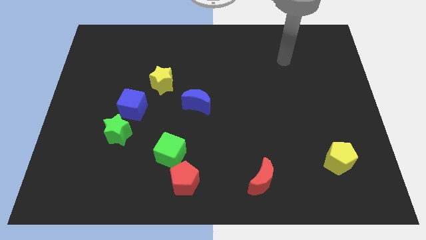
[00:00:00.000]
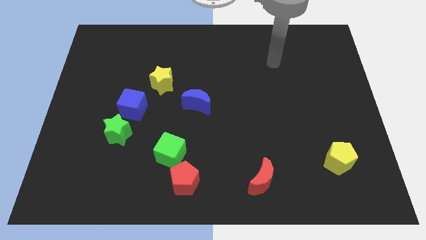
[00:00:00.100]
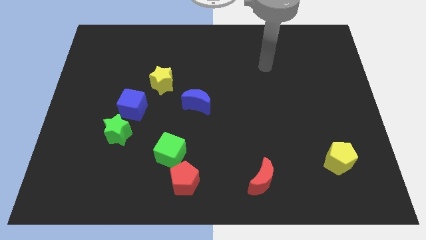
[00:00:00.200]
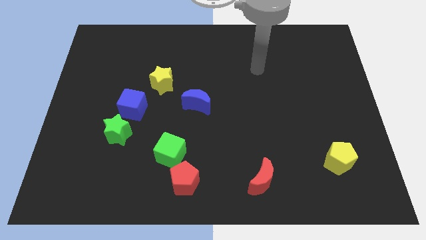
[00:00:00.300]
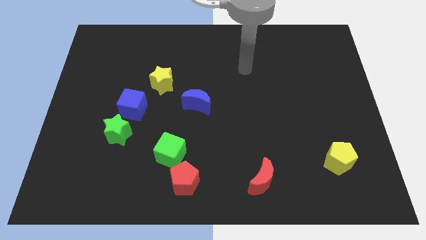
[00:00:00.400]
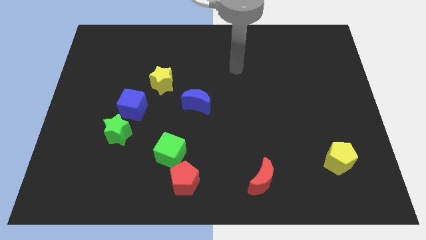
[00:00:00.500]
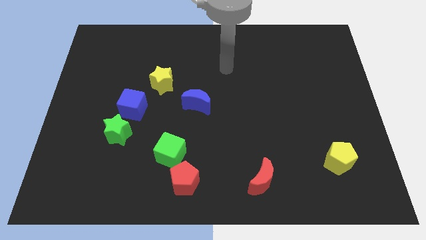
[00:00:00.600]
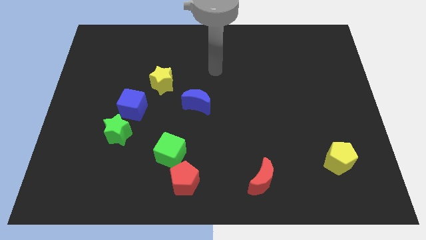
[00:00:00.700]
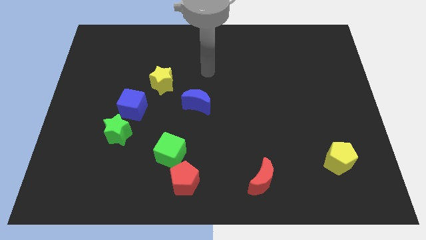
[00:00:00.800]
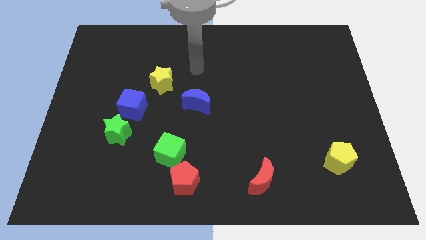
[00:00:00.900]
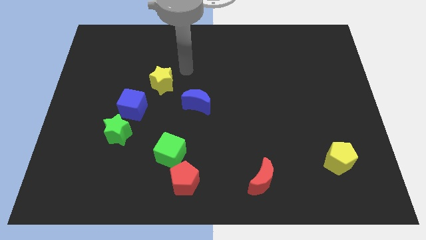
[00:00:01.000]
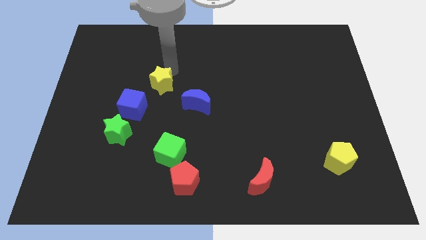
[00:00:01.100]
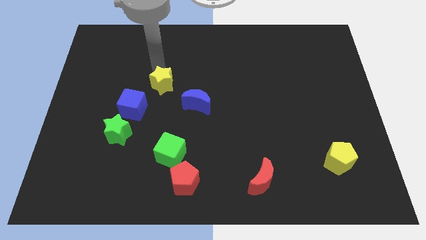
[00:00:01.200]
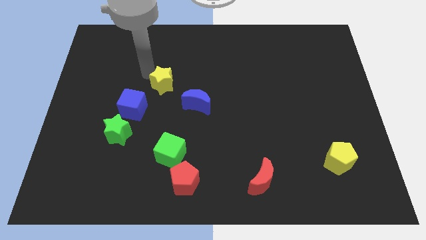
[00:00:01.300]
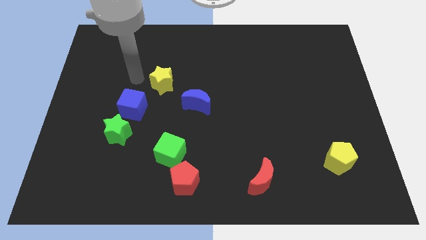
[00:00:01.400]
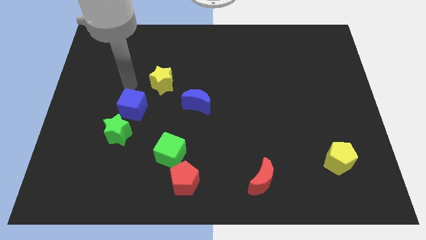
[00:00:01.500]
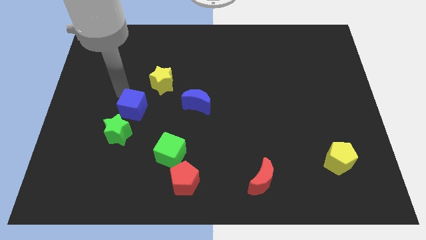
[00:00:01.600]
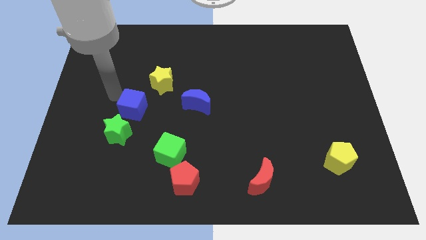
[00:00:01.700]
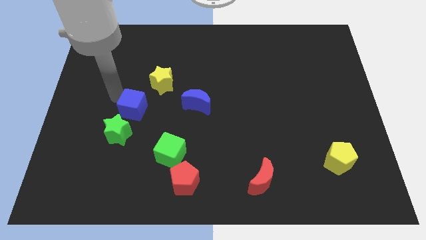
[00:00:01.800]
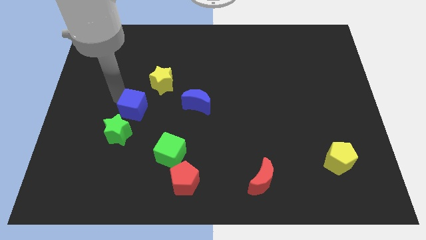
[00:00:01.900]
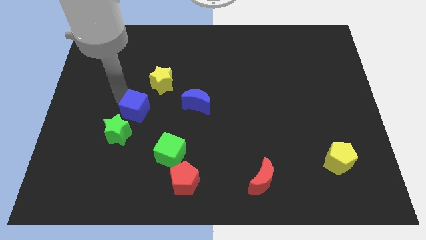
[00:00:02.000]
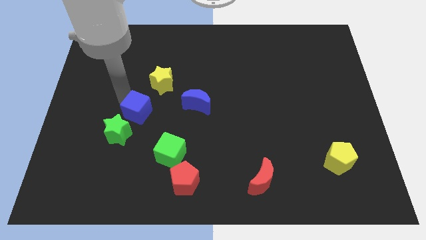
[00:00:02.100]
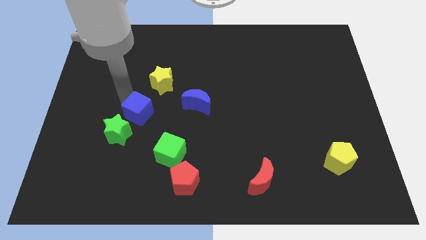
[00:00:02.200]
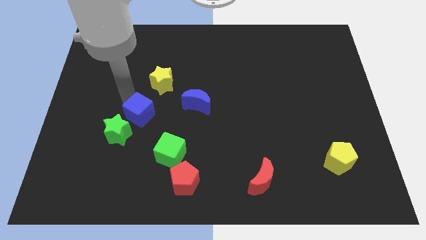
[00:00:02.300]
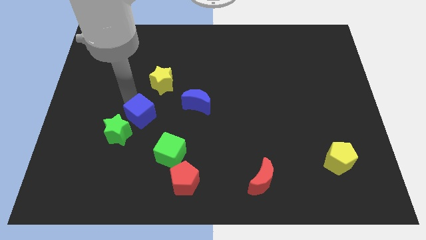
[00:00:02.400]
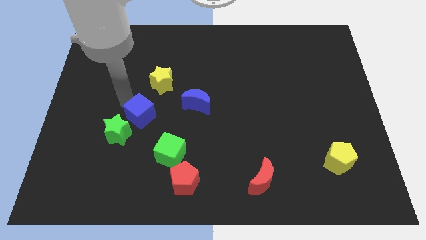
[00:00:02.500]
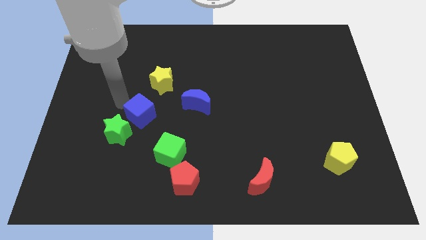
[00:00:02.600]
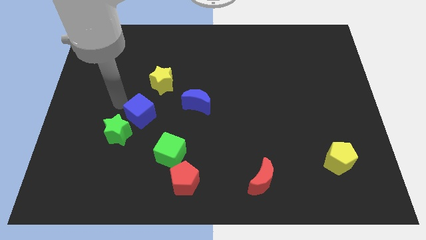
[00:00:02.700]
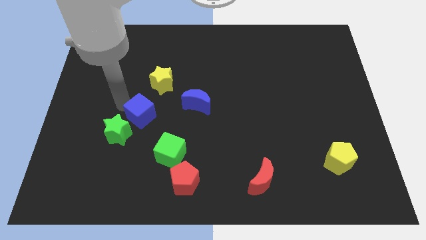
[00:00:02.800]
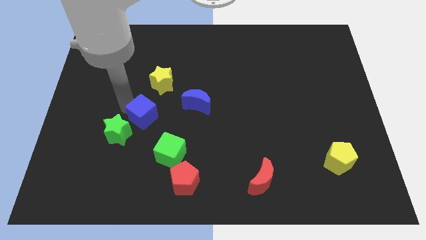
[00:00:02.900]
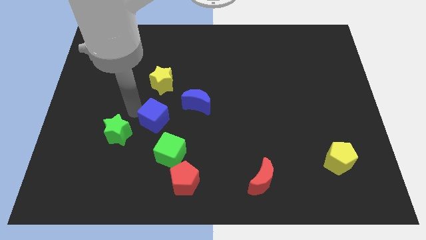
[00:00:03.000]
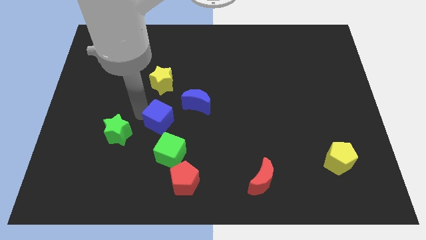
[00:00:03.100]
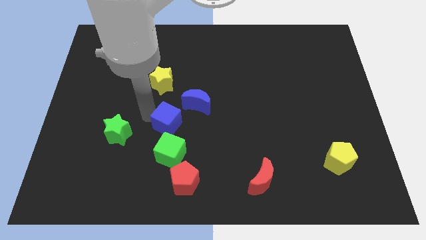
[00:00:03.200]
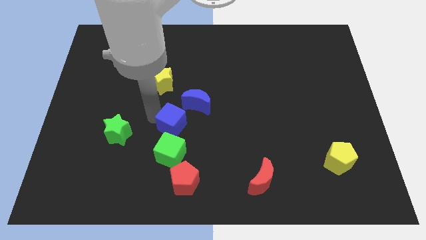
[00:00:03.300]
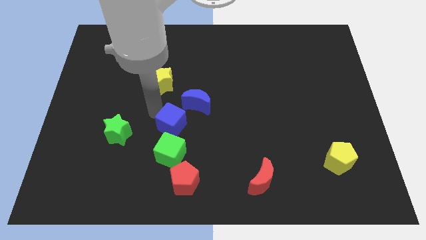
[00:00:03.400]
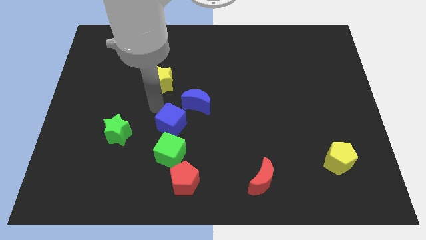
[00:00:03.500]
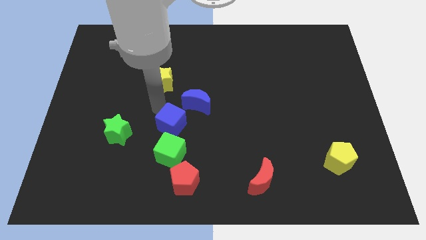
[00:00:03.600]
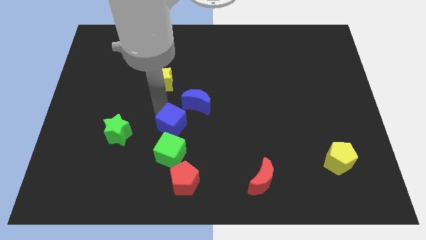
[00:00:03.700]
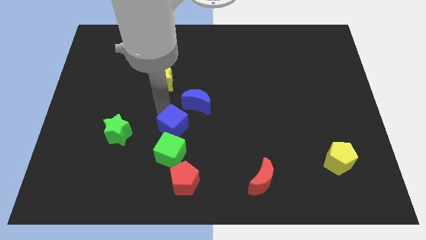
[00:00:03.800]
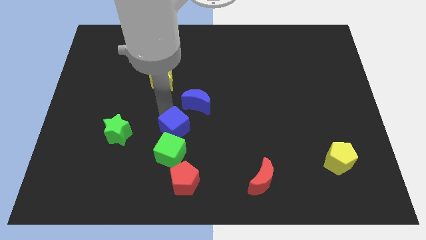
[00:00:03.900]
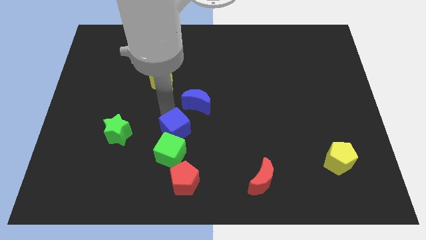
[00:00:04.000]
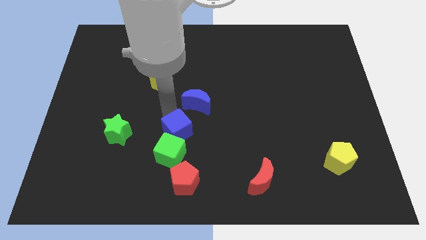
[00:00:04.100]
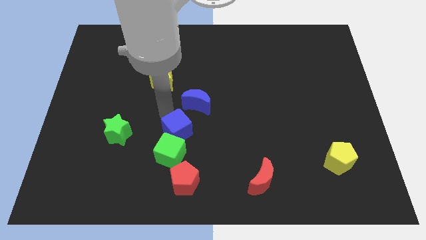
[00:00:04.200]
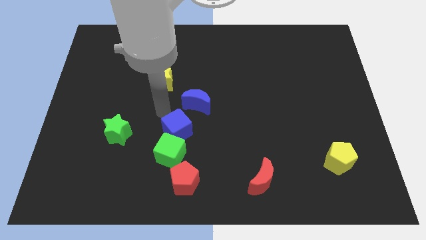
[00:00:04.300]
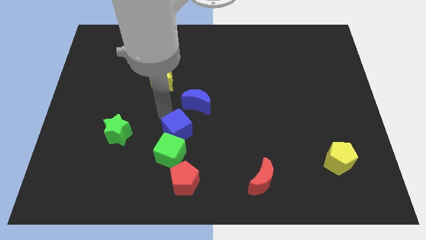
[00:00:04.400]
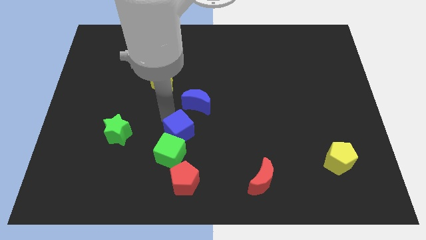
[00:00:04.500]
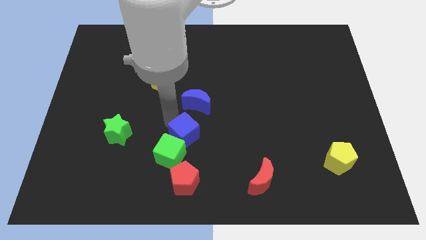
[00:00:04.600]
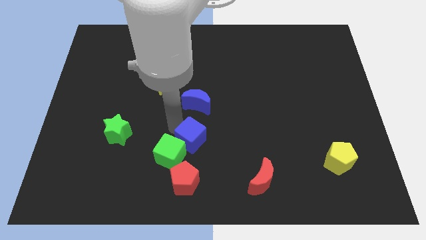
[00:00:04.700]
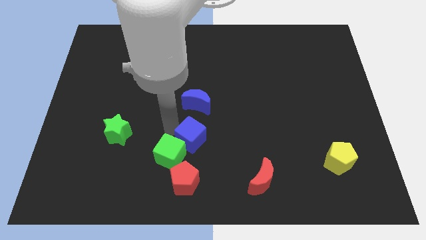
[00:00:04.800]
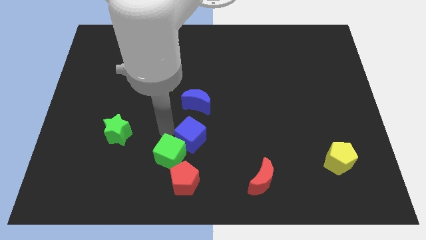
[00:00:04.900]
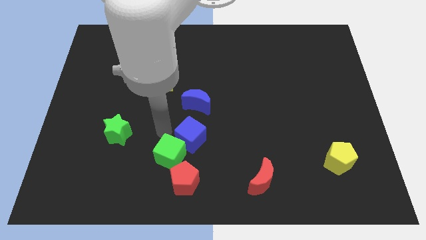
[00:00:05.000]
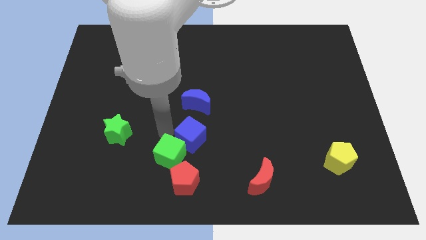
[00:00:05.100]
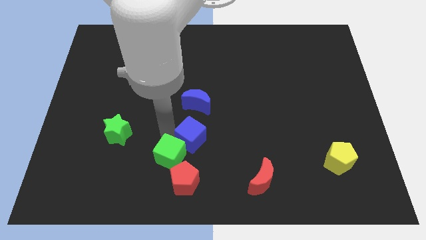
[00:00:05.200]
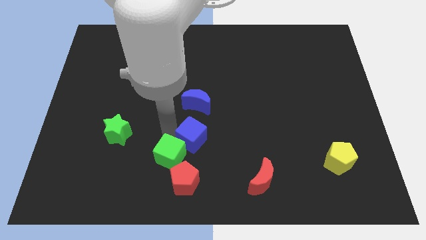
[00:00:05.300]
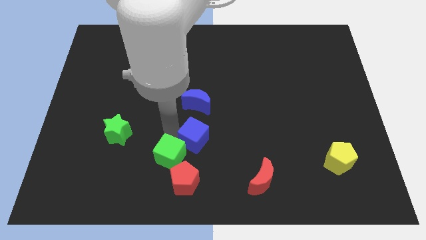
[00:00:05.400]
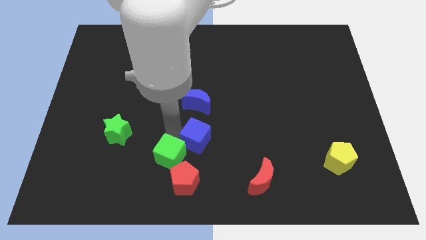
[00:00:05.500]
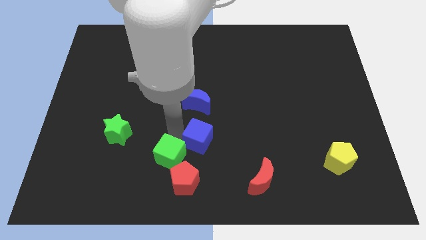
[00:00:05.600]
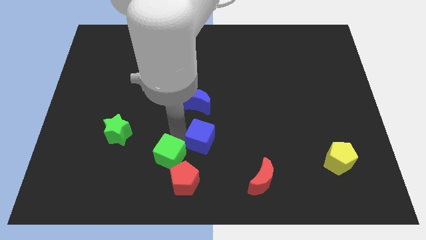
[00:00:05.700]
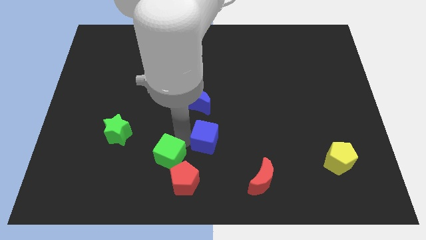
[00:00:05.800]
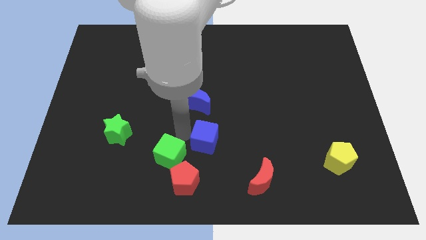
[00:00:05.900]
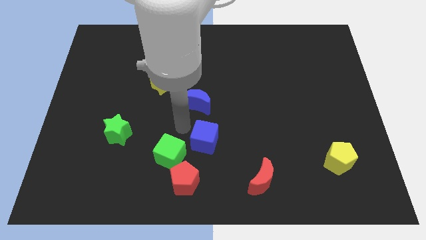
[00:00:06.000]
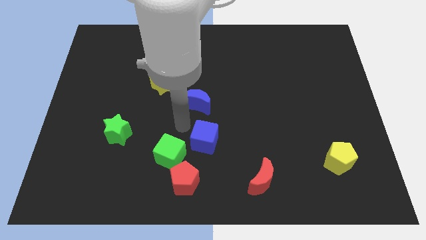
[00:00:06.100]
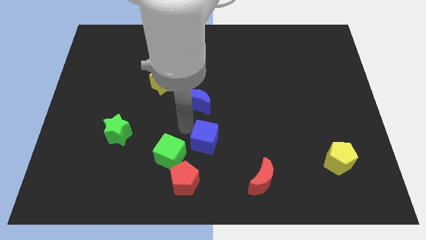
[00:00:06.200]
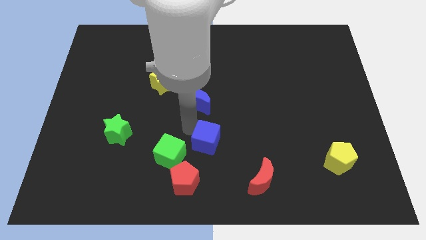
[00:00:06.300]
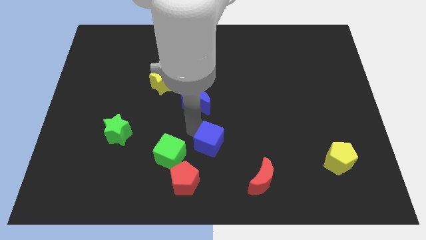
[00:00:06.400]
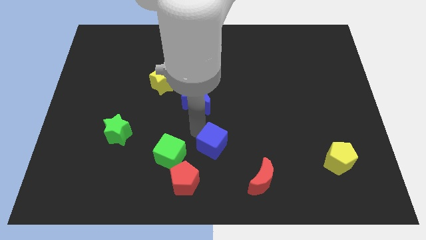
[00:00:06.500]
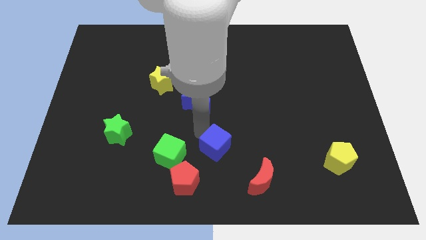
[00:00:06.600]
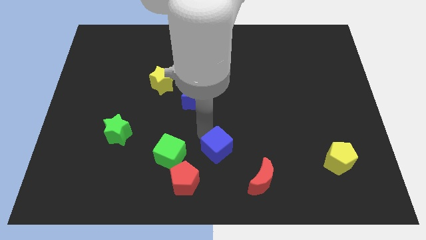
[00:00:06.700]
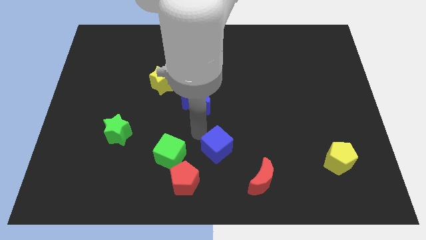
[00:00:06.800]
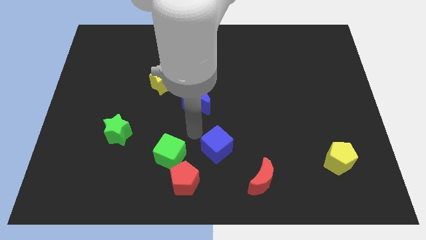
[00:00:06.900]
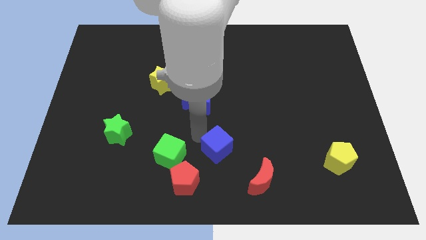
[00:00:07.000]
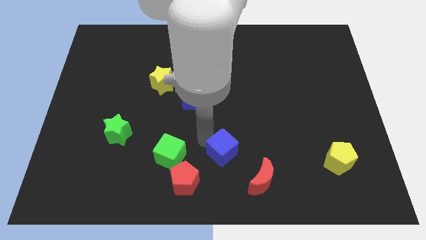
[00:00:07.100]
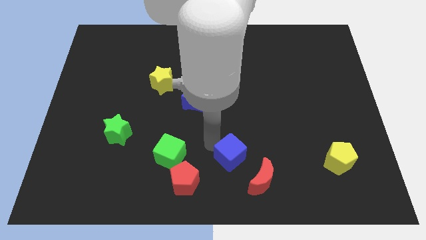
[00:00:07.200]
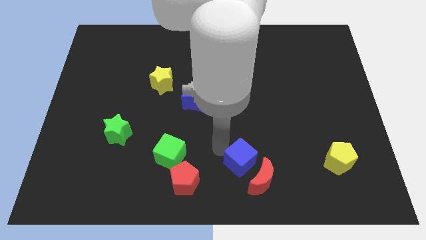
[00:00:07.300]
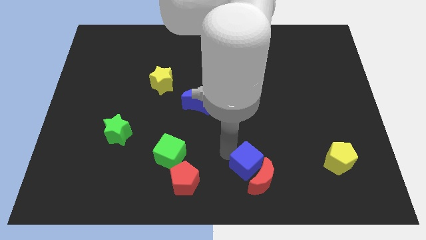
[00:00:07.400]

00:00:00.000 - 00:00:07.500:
put the blue cube close to the red moon
